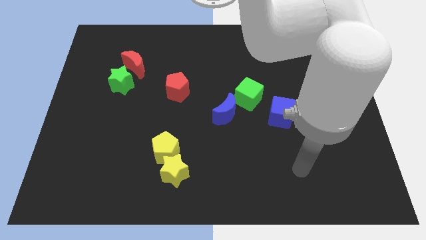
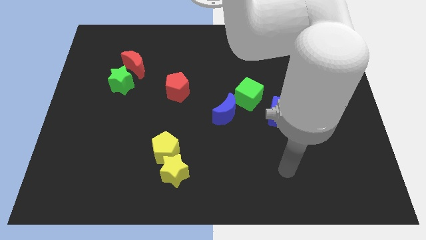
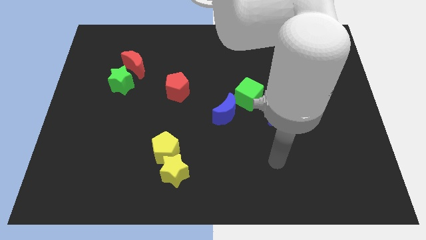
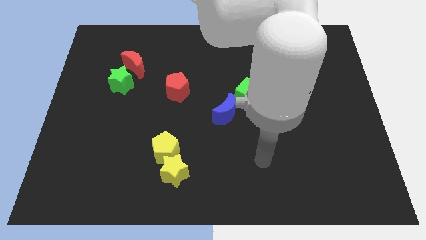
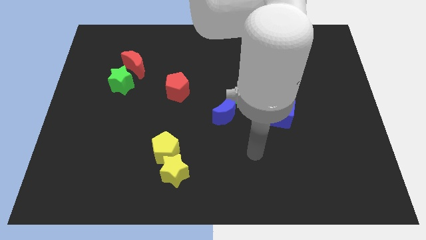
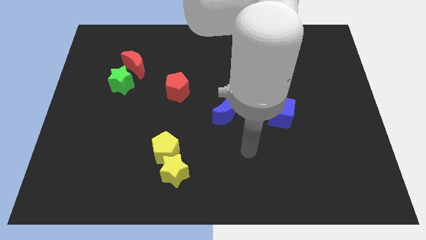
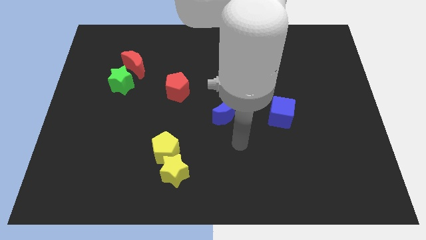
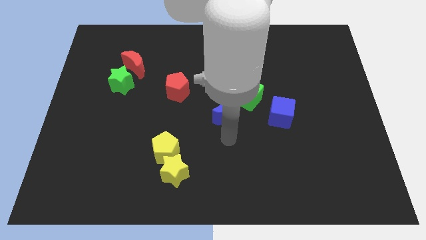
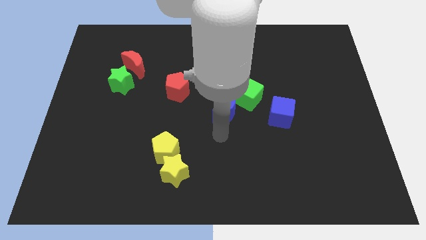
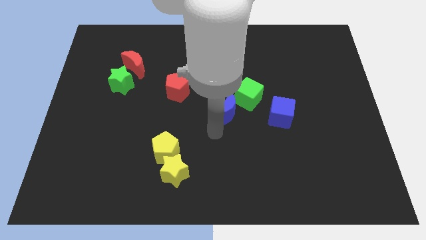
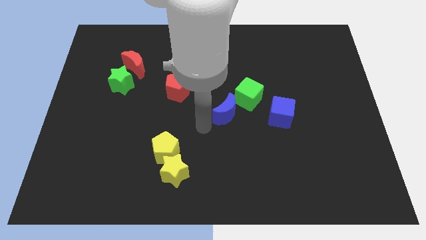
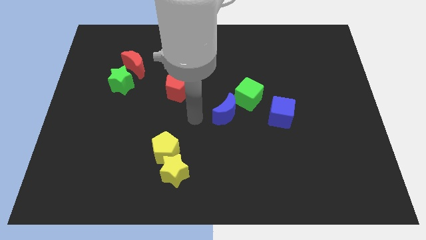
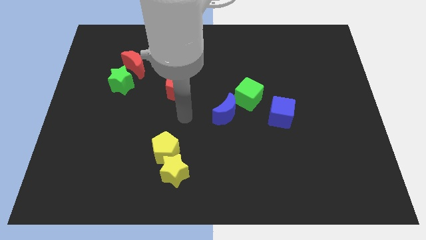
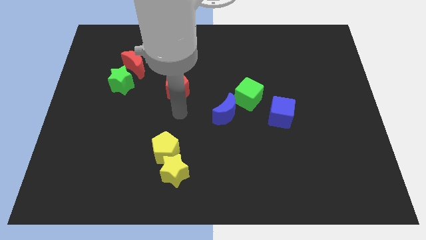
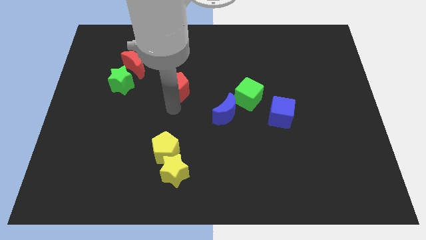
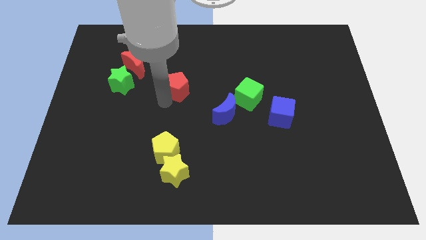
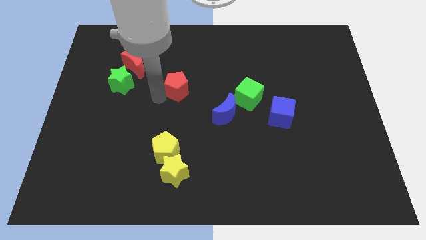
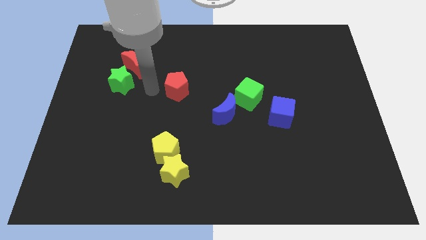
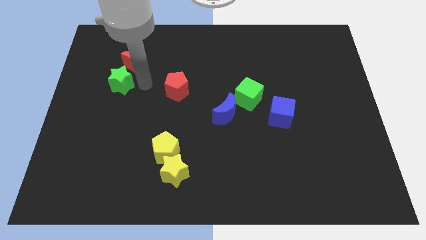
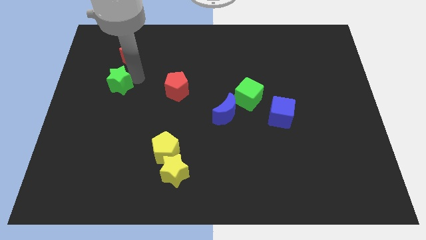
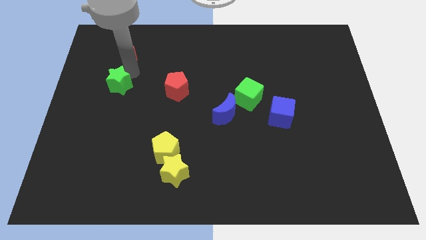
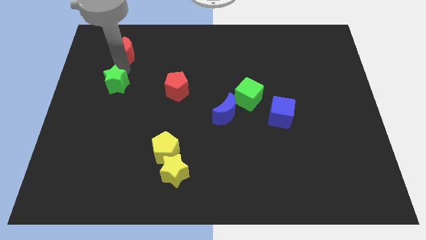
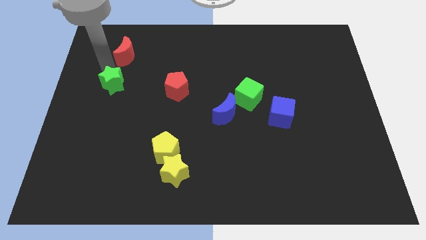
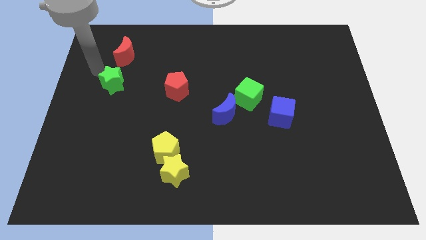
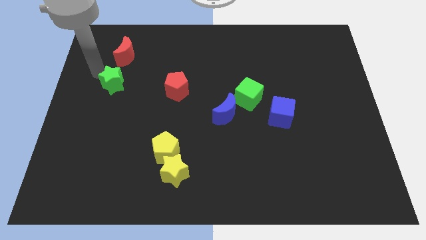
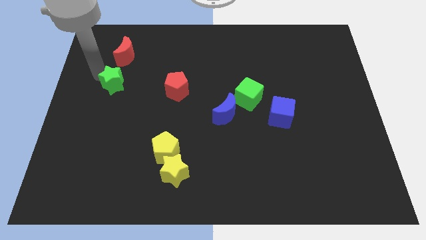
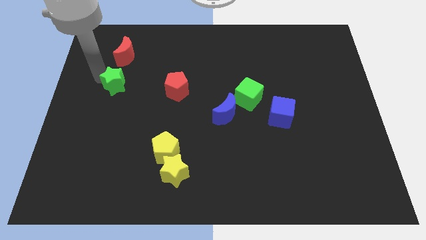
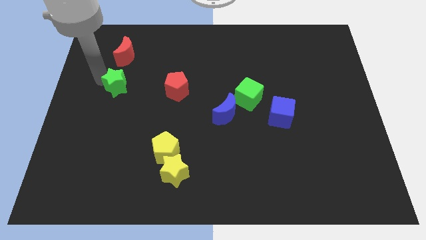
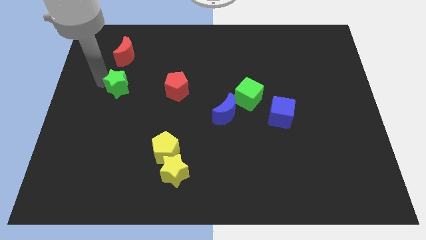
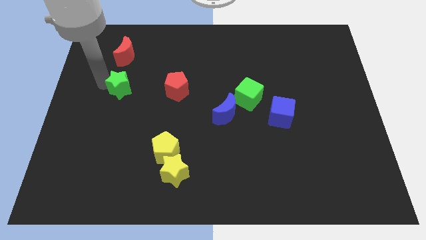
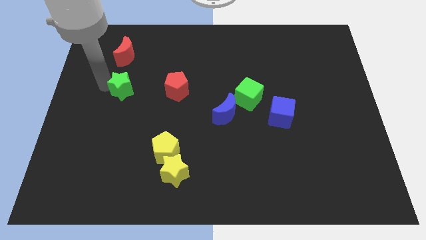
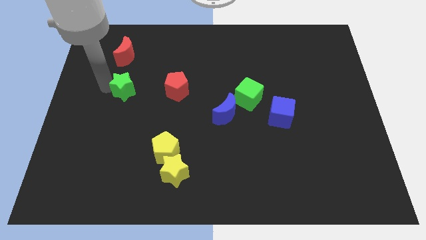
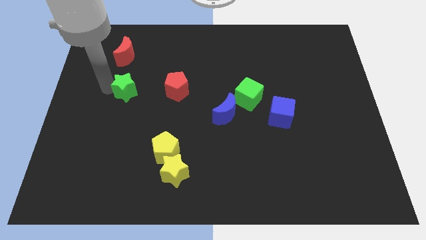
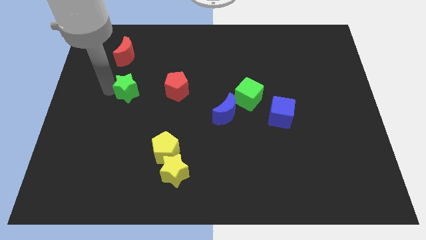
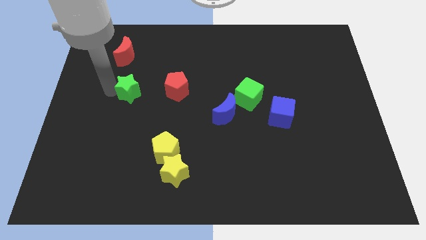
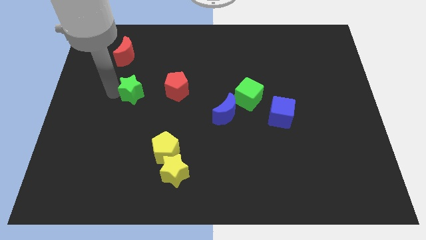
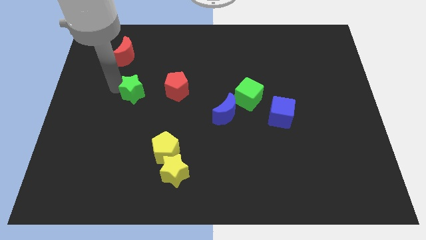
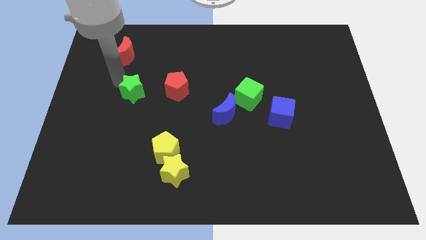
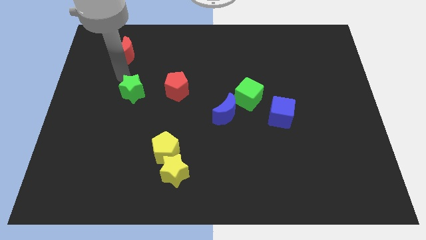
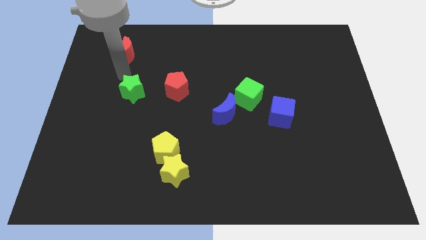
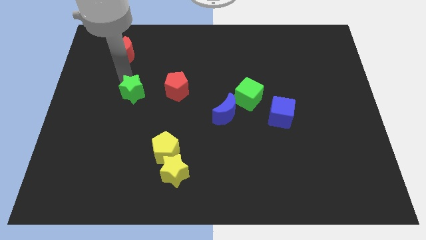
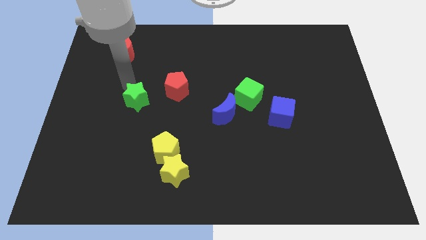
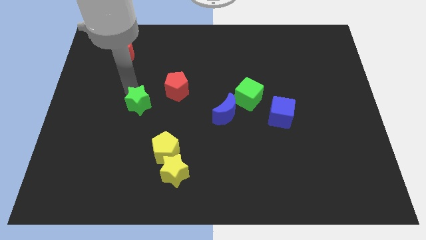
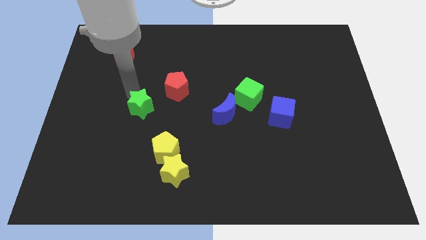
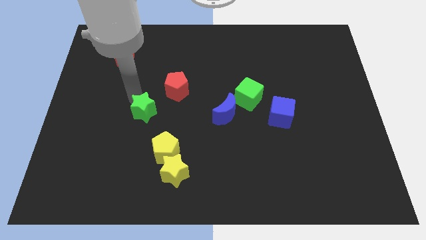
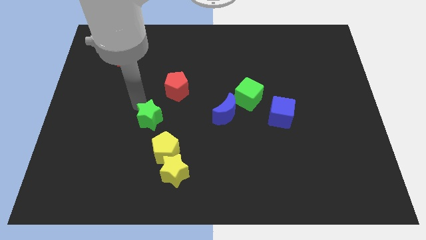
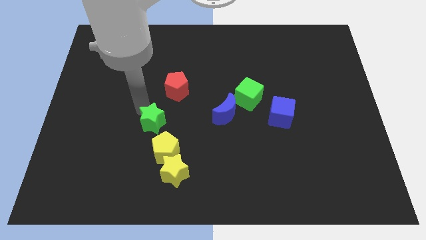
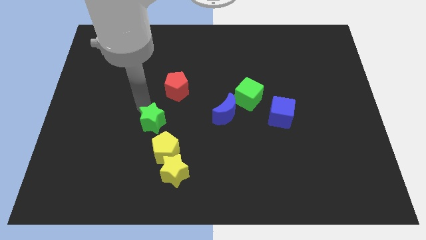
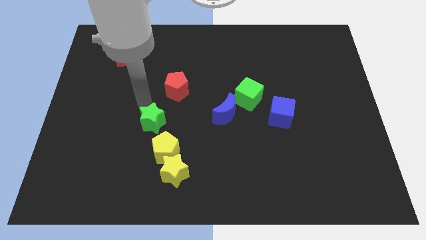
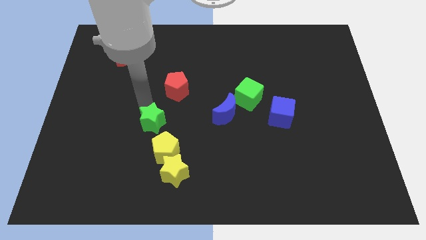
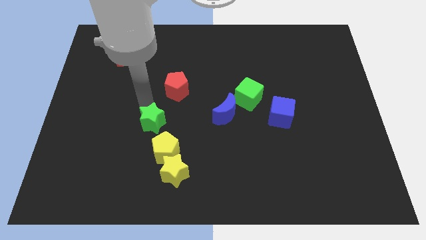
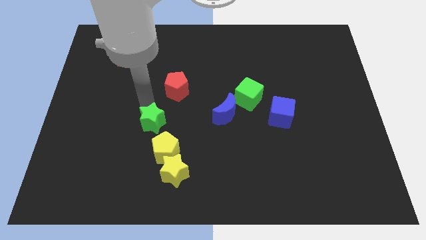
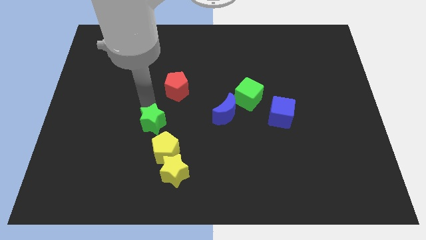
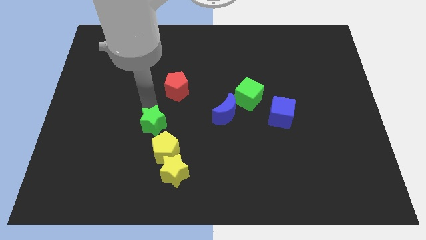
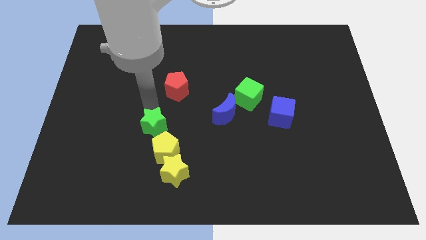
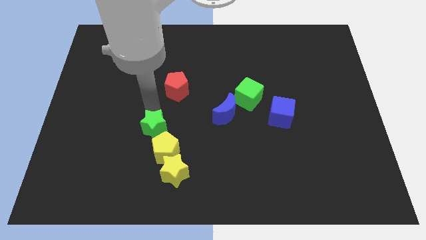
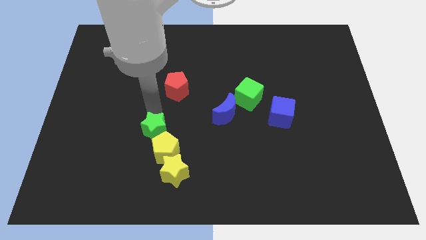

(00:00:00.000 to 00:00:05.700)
slide the green star towards the yellow pentagon

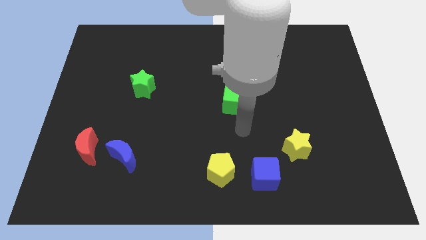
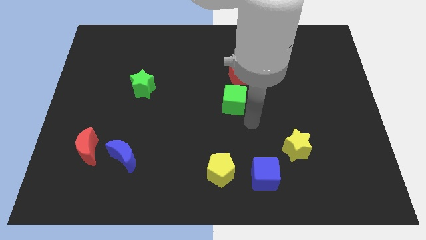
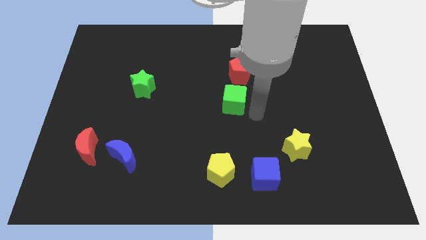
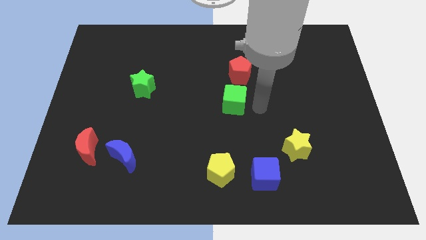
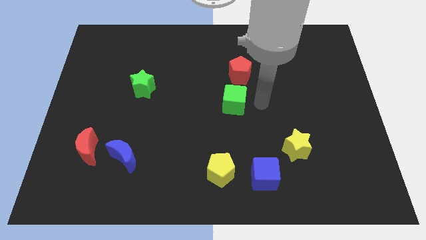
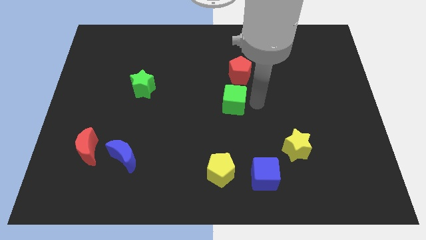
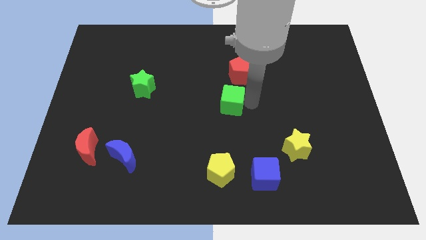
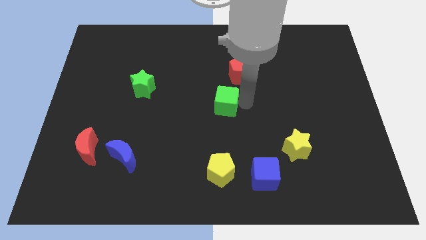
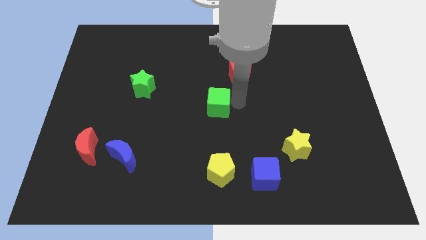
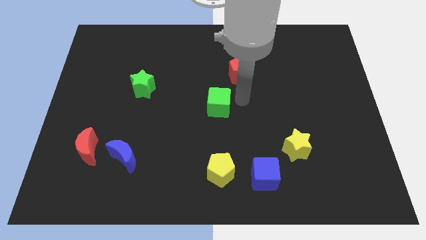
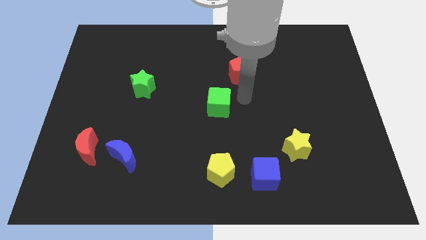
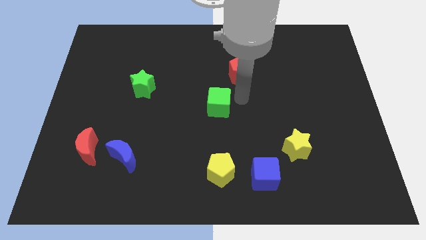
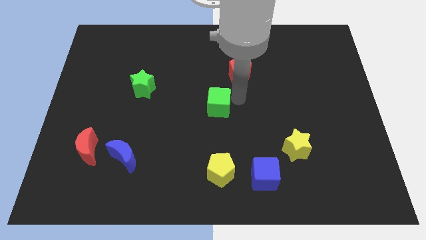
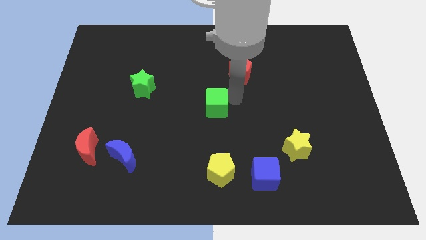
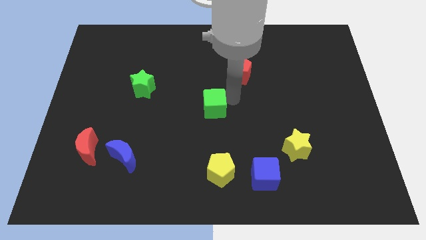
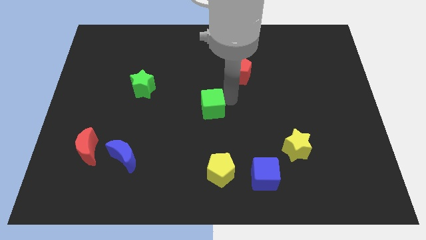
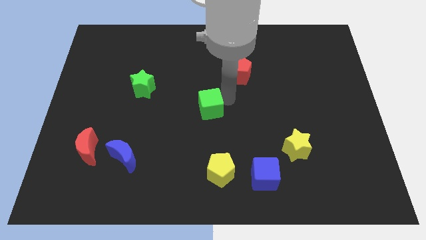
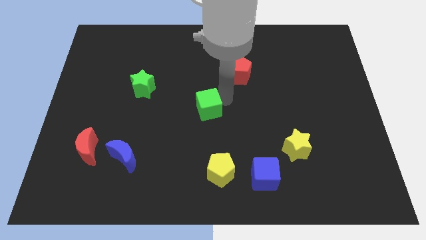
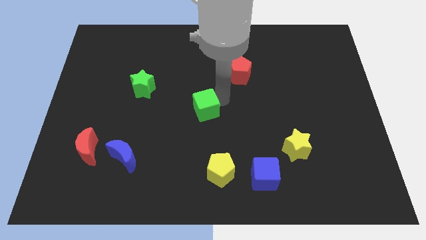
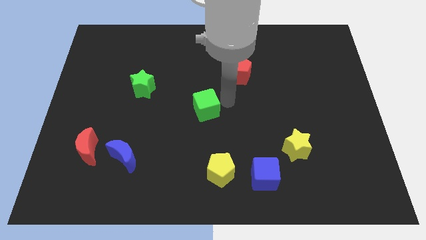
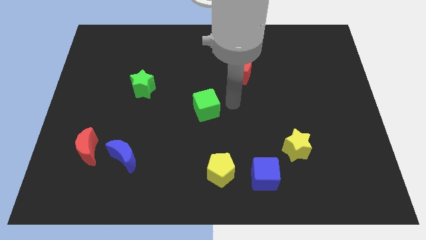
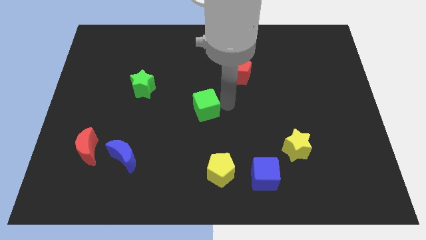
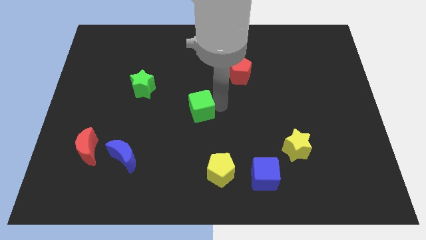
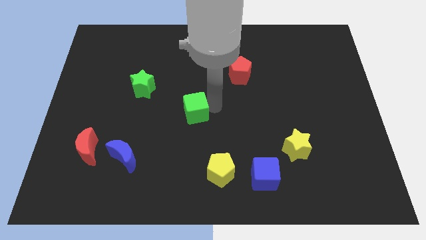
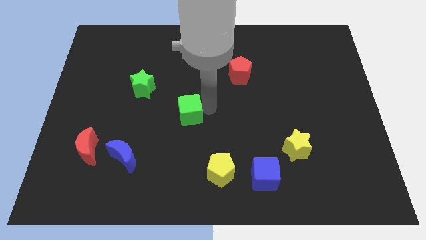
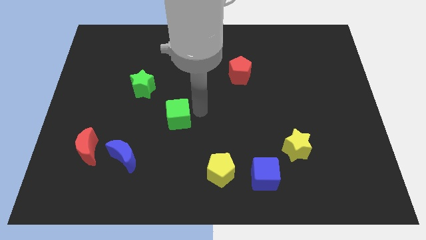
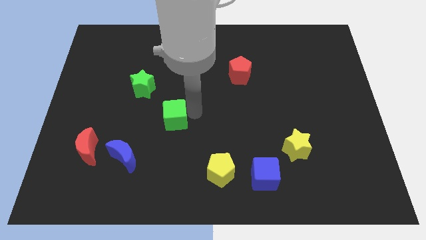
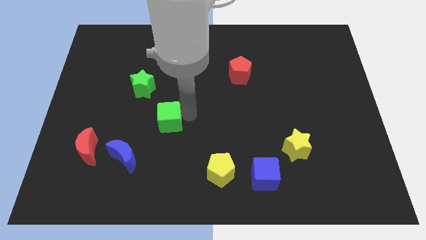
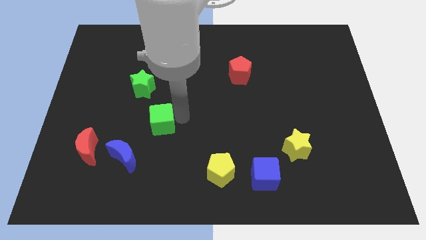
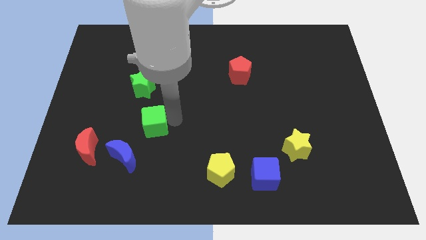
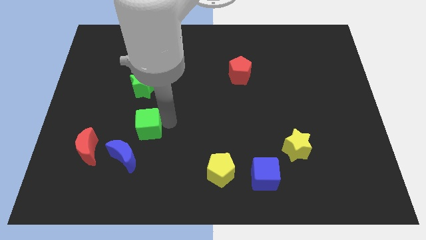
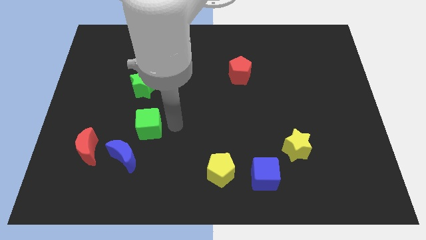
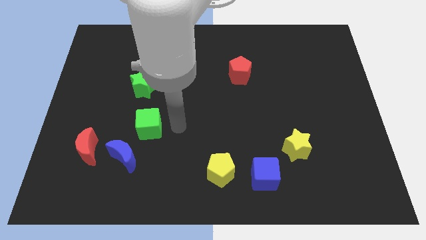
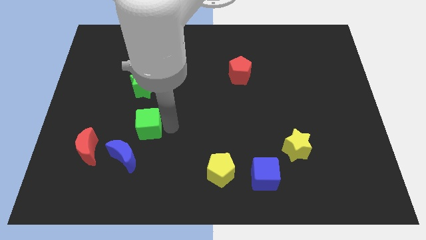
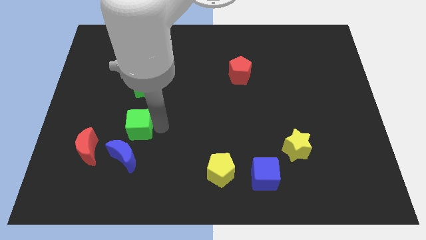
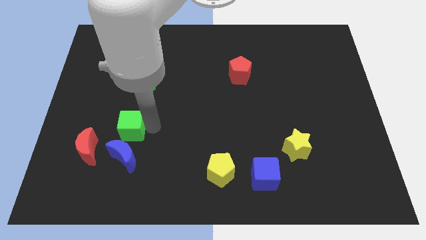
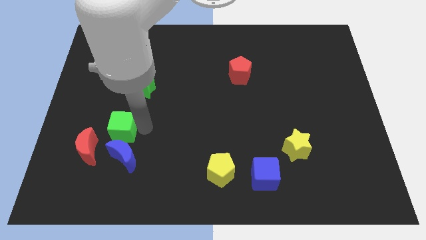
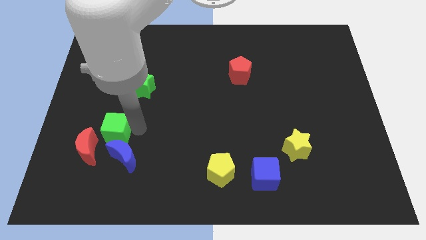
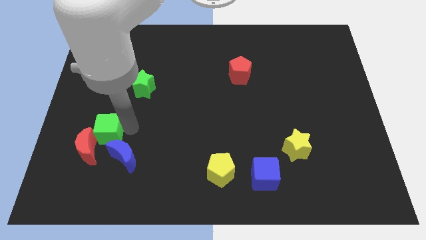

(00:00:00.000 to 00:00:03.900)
move the green cube next to the red moon
